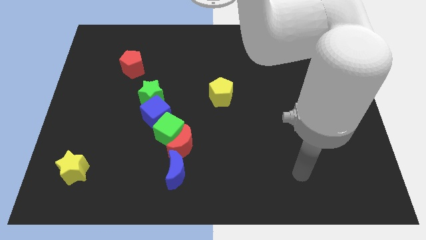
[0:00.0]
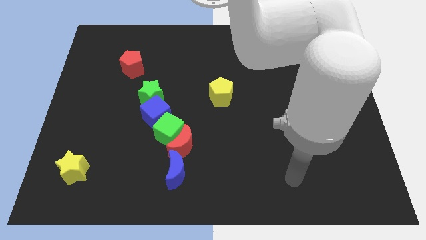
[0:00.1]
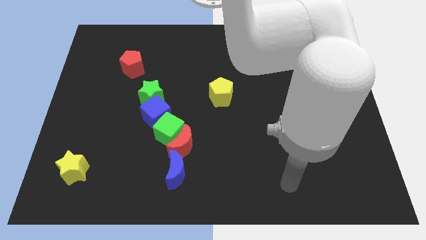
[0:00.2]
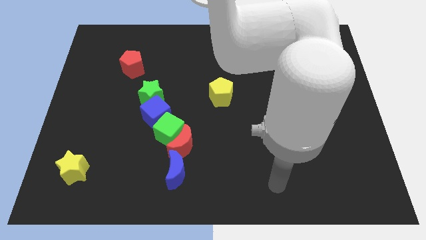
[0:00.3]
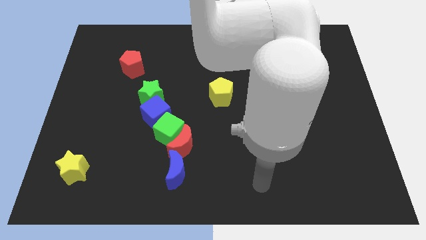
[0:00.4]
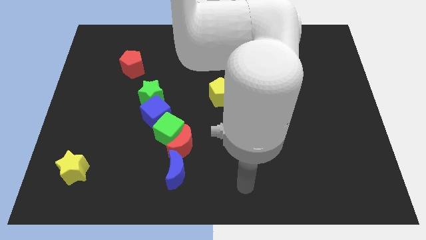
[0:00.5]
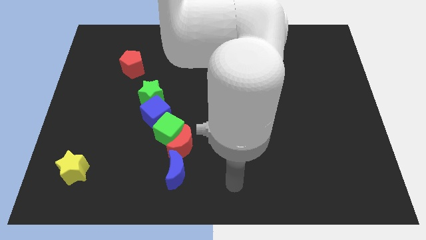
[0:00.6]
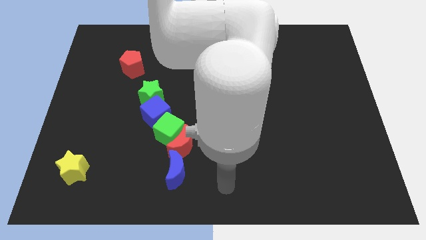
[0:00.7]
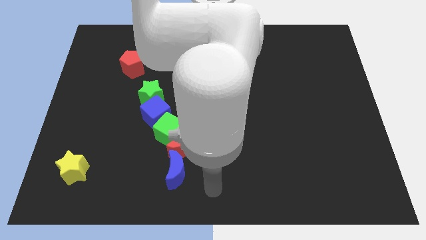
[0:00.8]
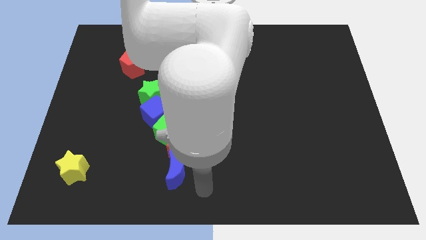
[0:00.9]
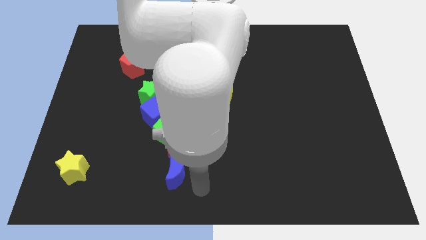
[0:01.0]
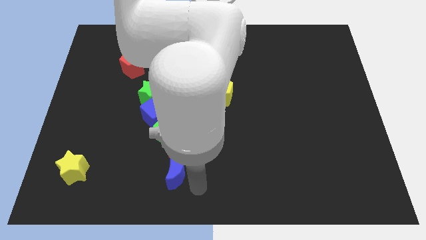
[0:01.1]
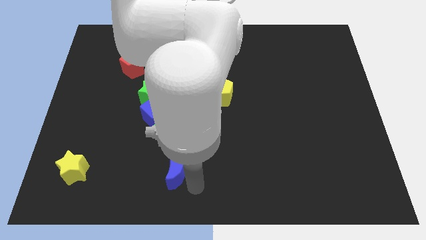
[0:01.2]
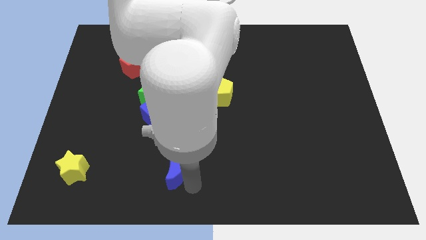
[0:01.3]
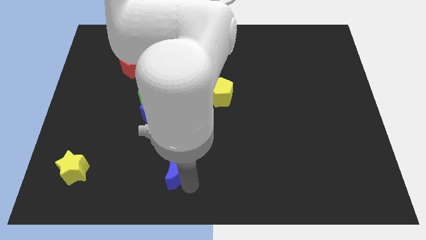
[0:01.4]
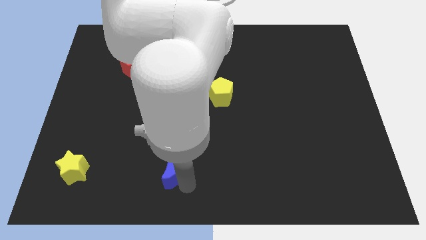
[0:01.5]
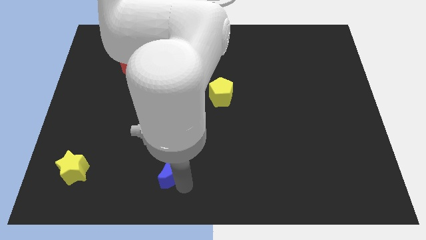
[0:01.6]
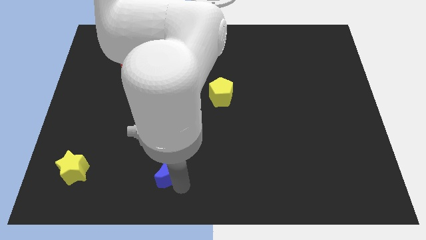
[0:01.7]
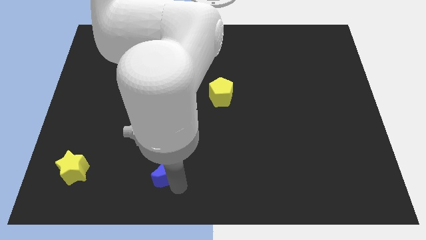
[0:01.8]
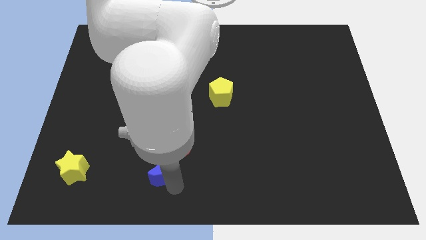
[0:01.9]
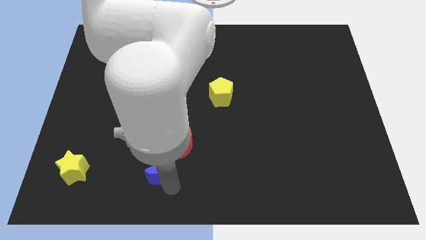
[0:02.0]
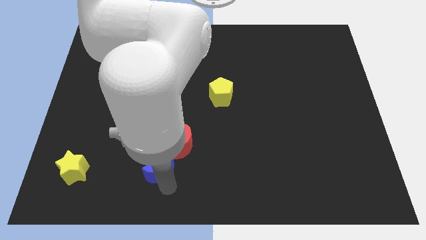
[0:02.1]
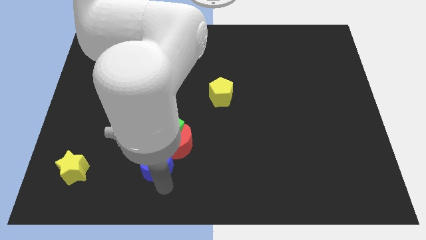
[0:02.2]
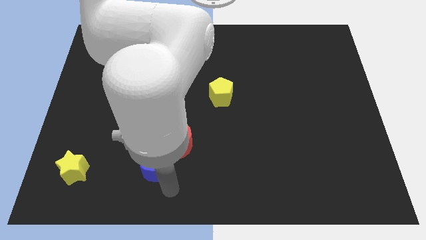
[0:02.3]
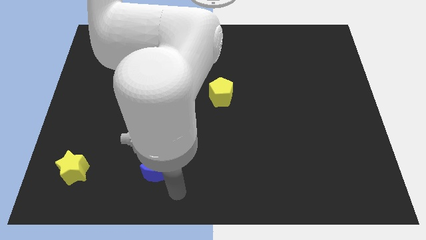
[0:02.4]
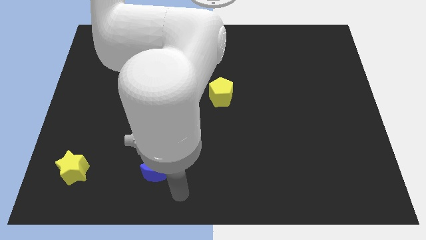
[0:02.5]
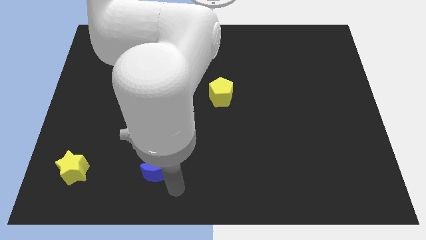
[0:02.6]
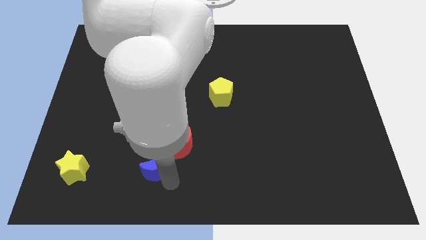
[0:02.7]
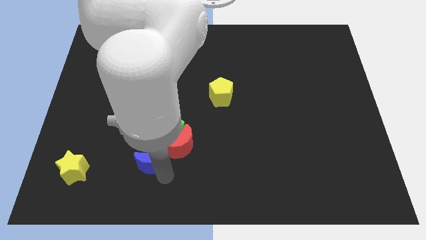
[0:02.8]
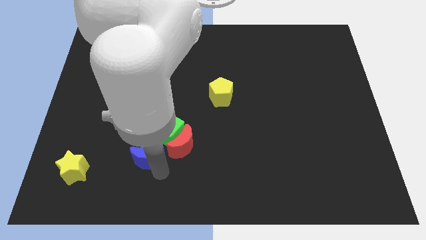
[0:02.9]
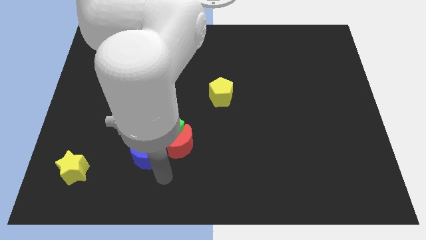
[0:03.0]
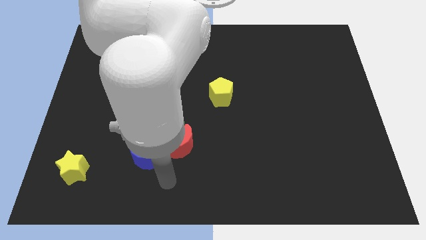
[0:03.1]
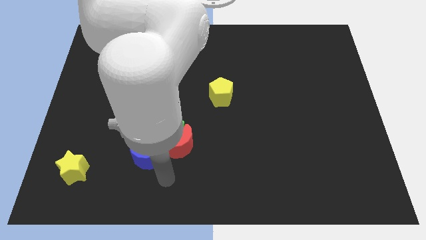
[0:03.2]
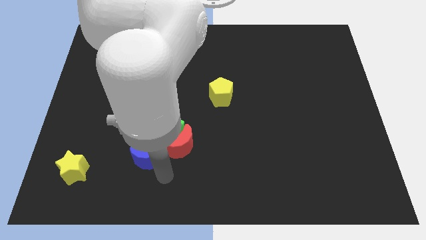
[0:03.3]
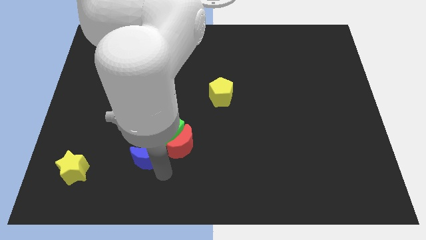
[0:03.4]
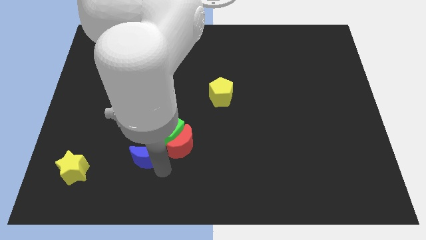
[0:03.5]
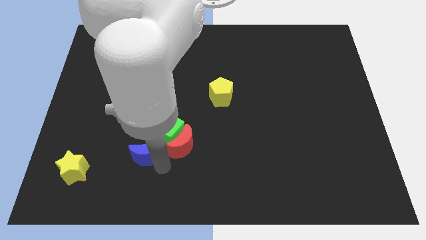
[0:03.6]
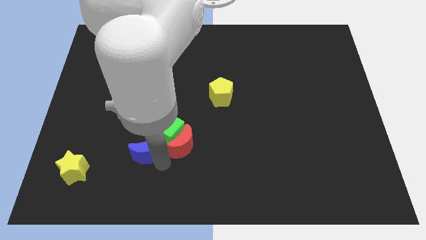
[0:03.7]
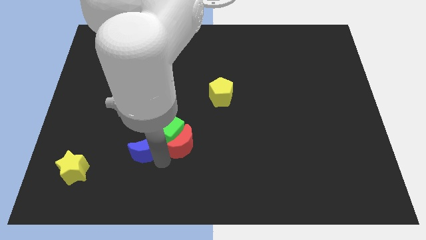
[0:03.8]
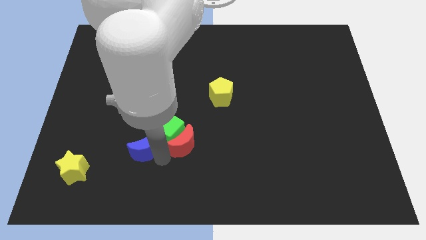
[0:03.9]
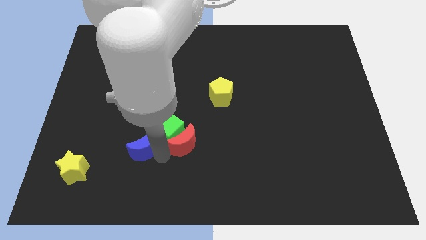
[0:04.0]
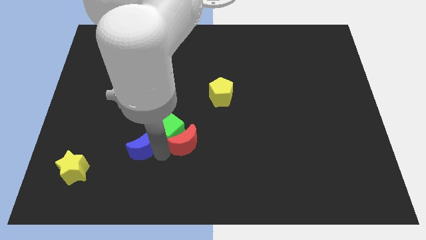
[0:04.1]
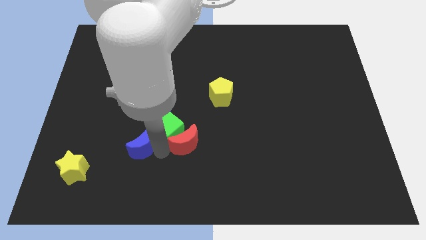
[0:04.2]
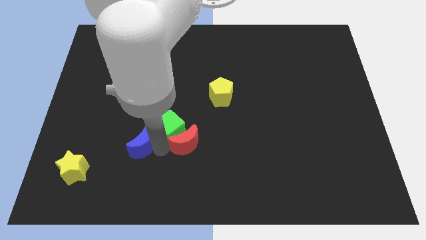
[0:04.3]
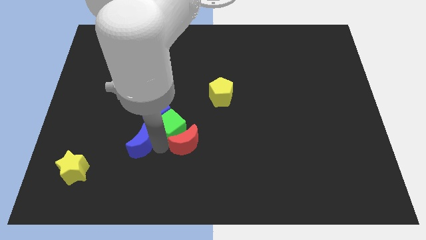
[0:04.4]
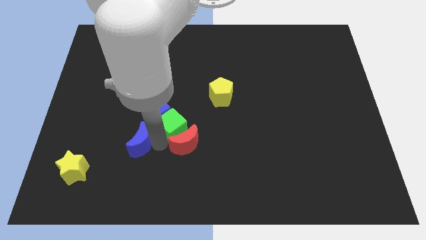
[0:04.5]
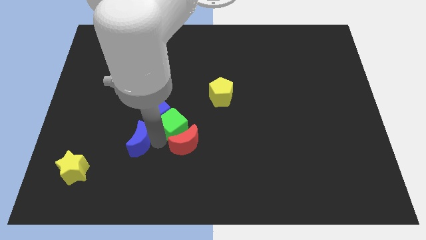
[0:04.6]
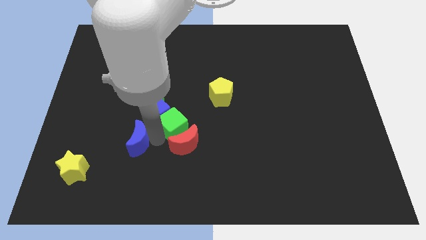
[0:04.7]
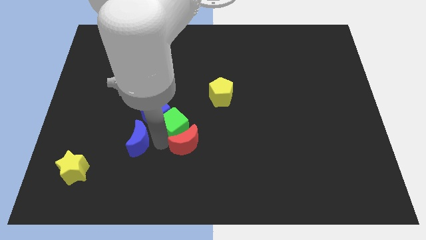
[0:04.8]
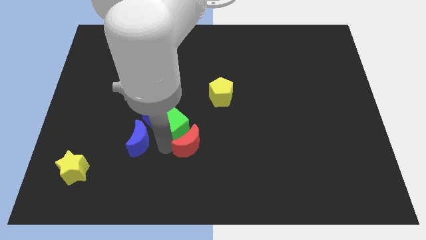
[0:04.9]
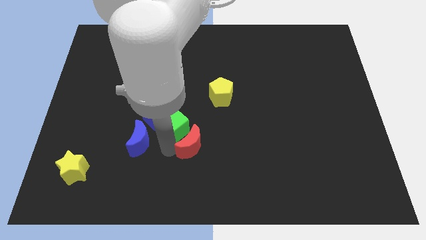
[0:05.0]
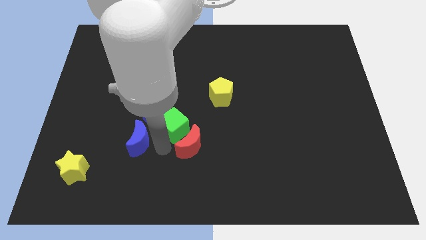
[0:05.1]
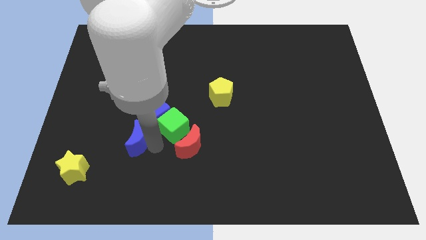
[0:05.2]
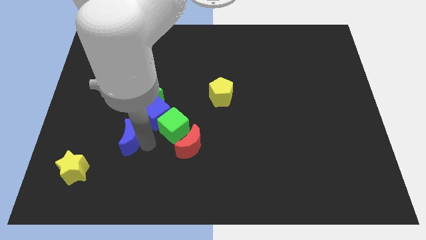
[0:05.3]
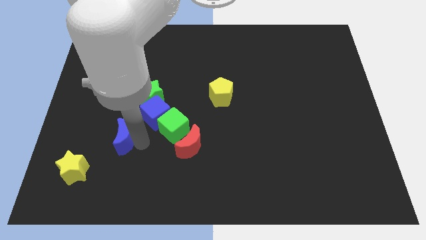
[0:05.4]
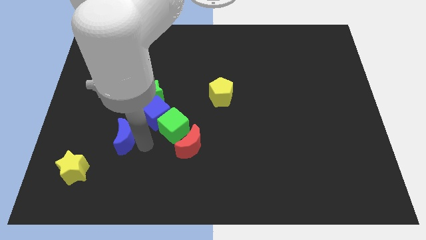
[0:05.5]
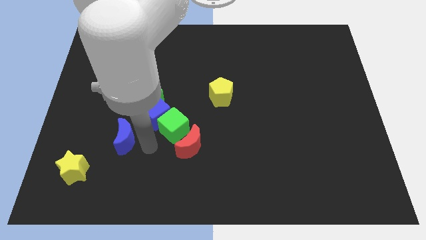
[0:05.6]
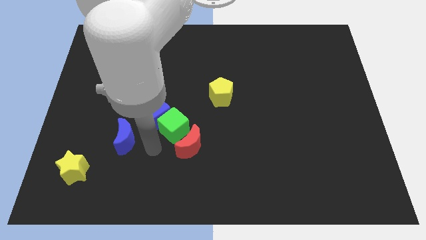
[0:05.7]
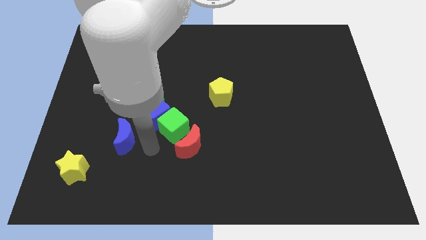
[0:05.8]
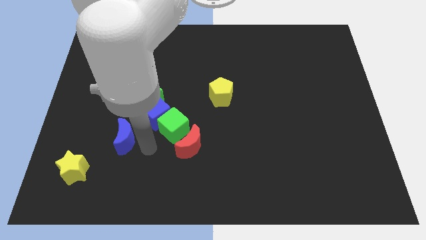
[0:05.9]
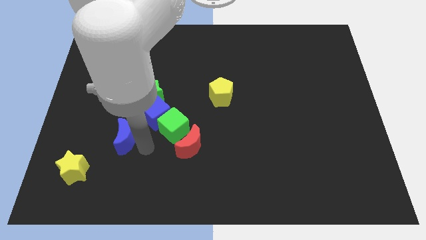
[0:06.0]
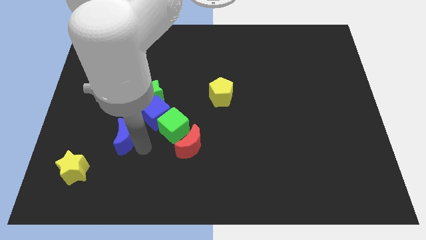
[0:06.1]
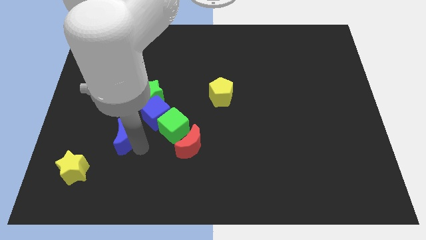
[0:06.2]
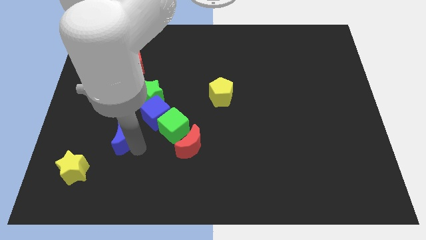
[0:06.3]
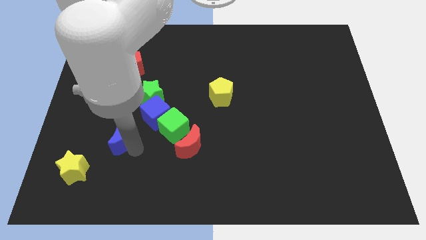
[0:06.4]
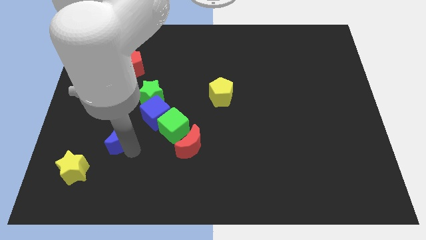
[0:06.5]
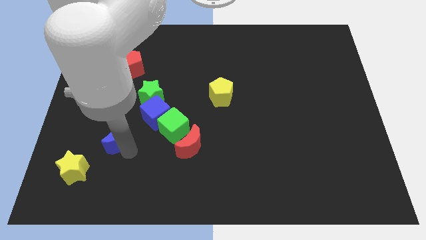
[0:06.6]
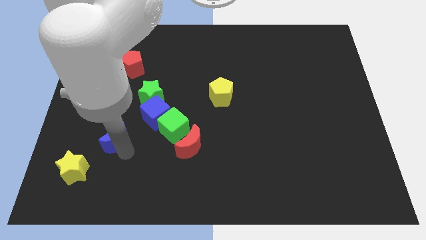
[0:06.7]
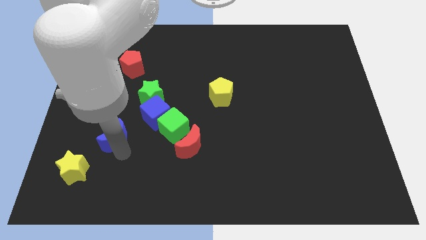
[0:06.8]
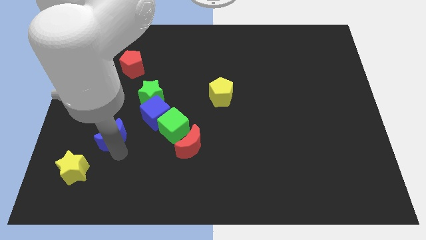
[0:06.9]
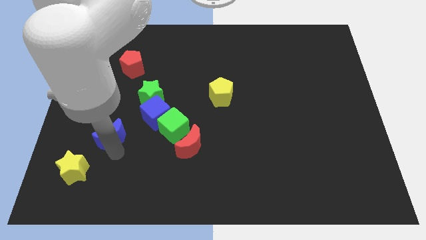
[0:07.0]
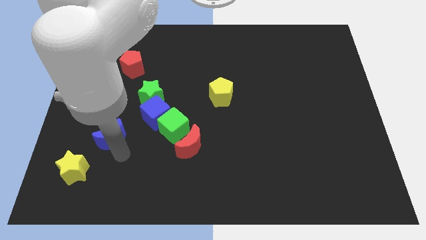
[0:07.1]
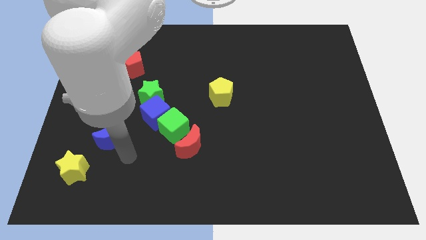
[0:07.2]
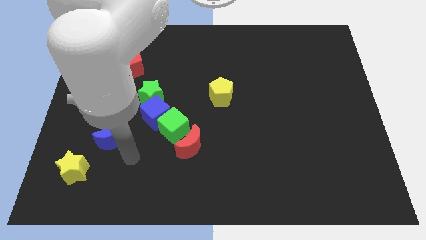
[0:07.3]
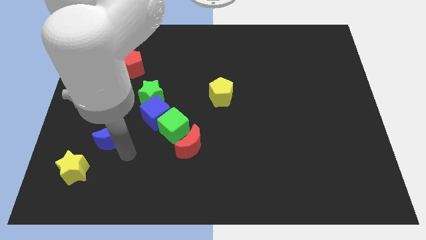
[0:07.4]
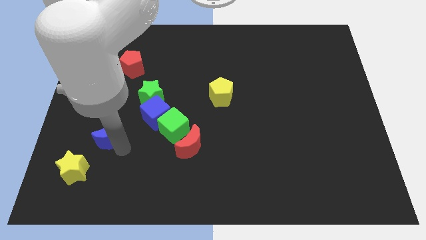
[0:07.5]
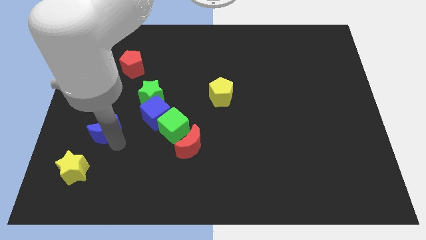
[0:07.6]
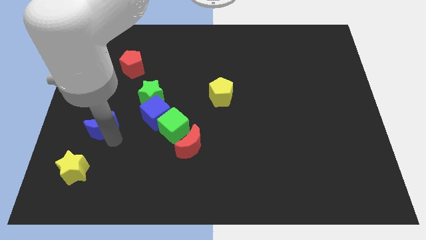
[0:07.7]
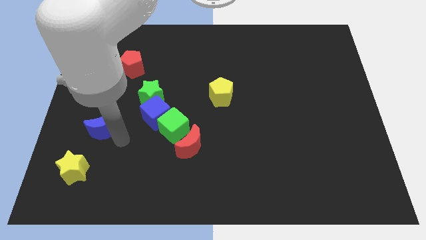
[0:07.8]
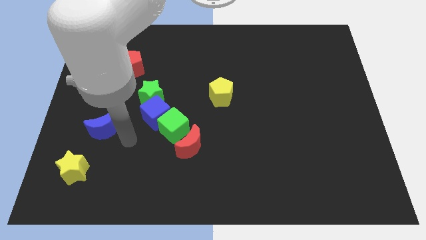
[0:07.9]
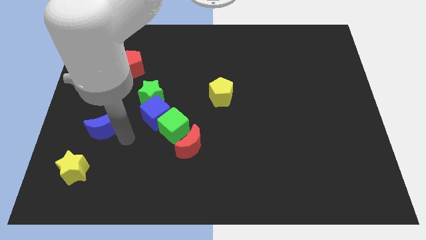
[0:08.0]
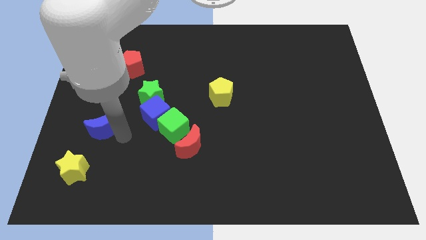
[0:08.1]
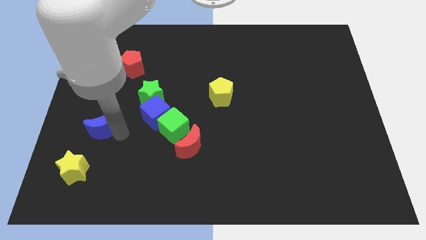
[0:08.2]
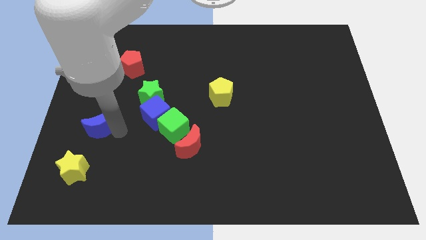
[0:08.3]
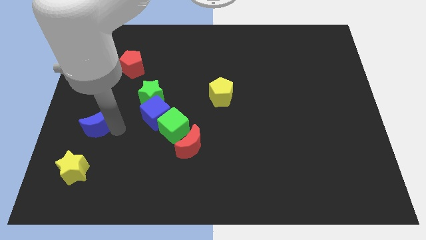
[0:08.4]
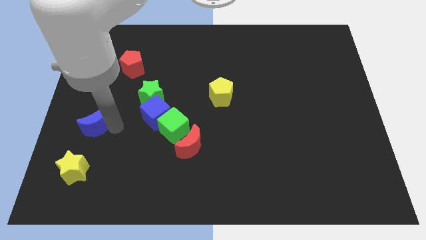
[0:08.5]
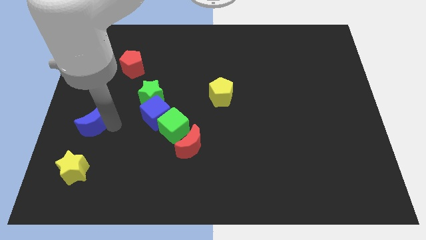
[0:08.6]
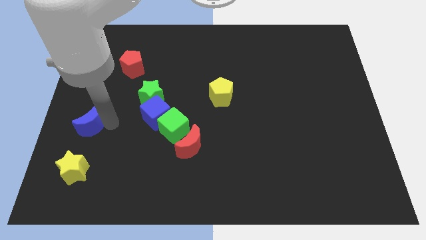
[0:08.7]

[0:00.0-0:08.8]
push the blue moon to the center left
